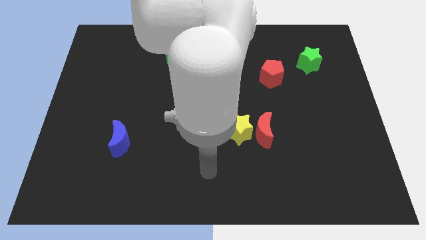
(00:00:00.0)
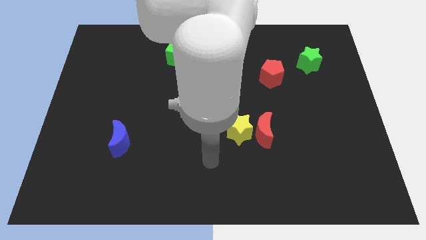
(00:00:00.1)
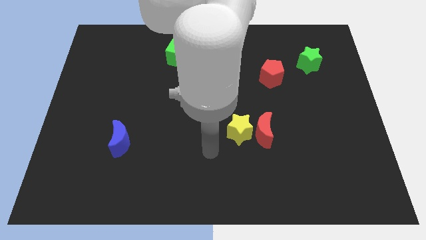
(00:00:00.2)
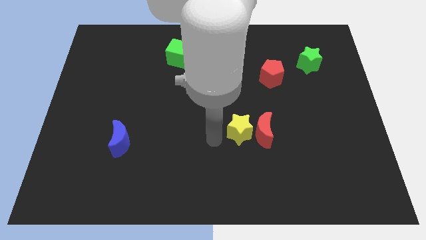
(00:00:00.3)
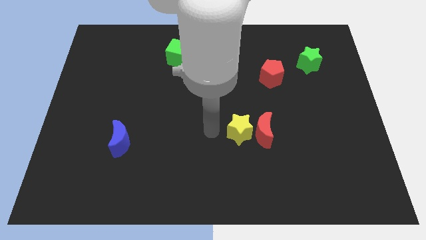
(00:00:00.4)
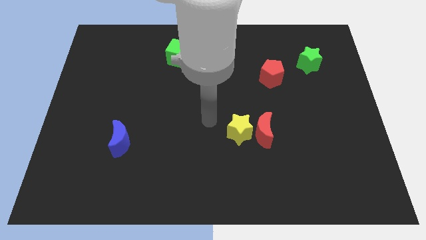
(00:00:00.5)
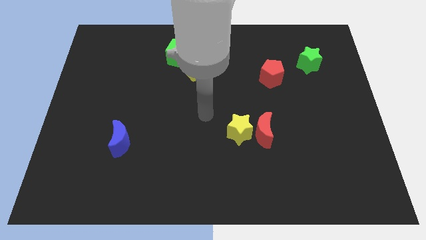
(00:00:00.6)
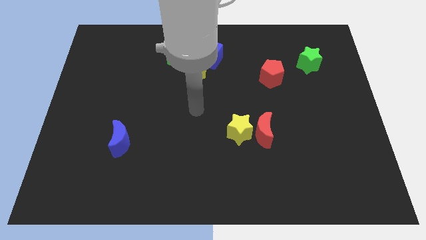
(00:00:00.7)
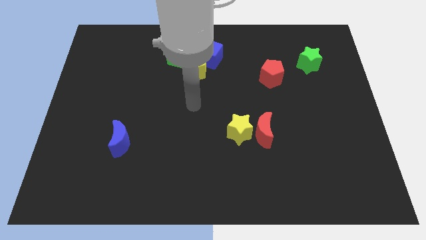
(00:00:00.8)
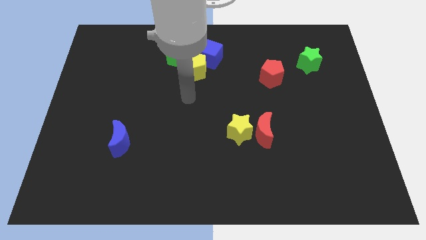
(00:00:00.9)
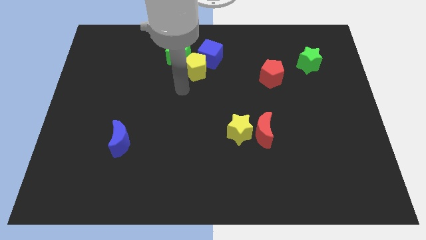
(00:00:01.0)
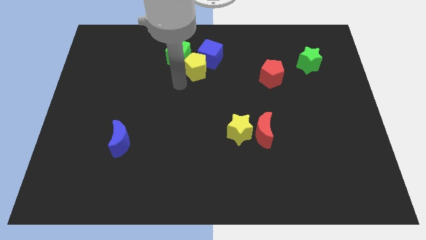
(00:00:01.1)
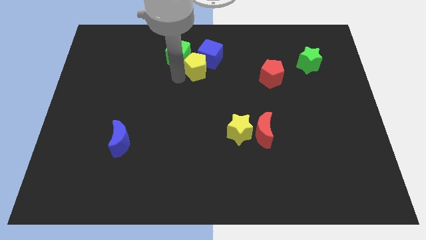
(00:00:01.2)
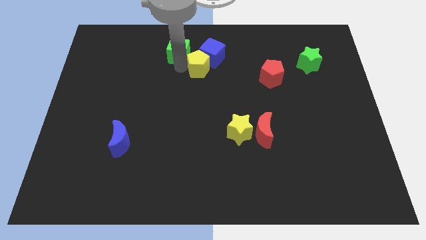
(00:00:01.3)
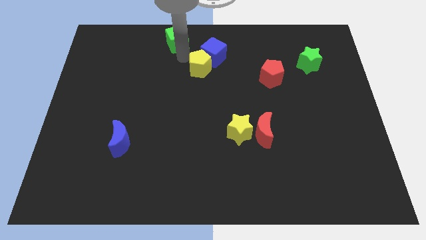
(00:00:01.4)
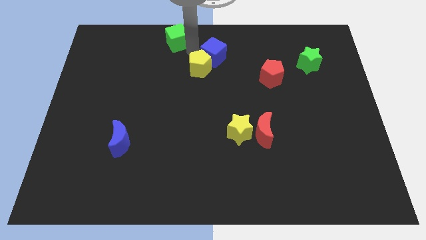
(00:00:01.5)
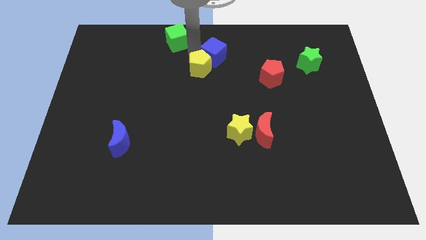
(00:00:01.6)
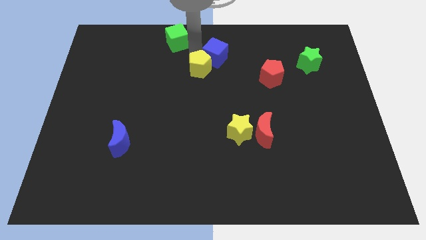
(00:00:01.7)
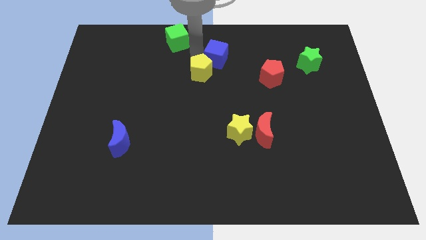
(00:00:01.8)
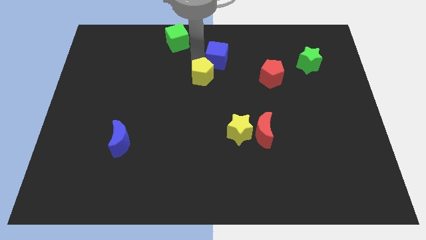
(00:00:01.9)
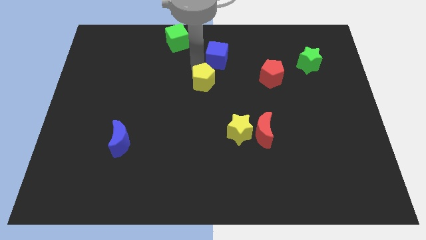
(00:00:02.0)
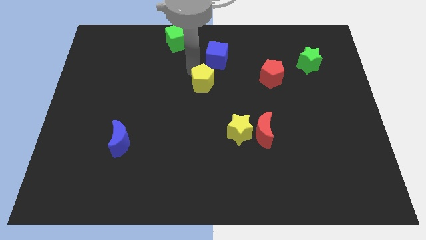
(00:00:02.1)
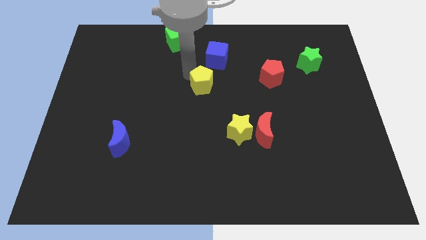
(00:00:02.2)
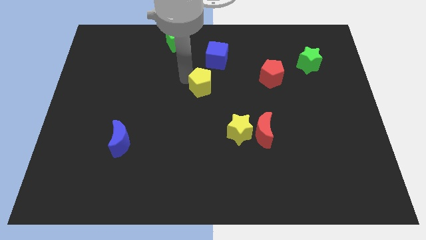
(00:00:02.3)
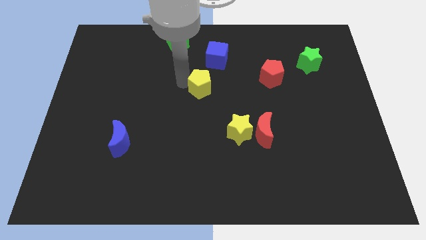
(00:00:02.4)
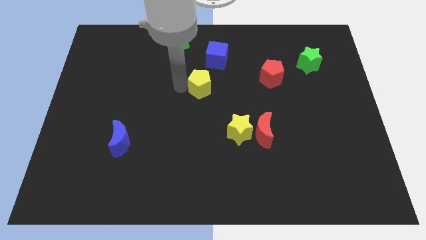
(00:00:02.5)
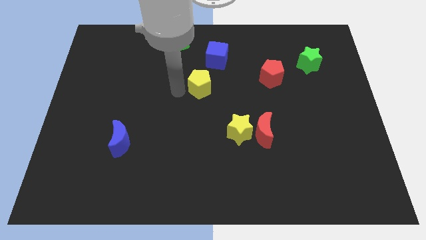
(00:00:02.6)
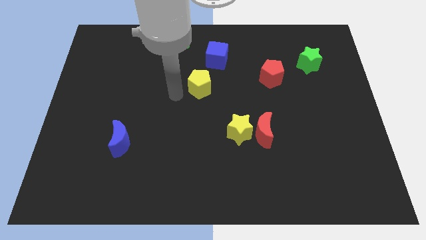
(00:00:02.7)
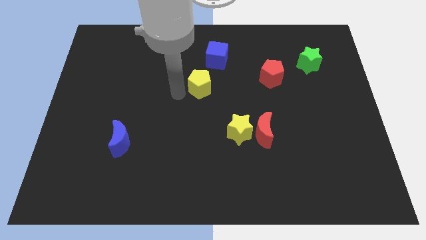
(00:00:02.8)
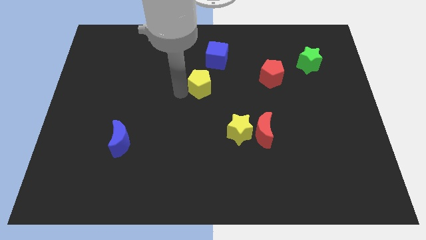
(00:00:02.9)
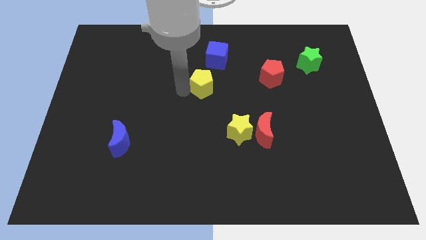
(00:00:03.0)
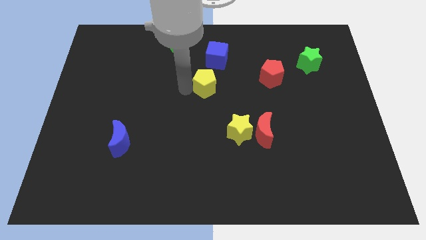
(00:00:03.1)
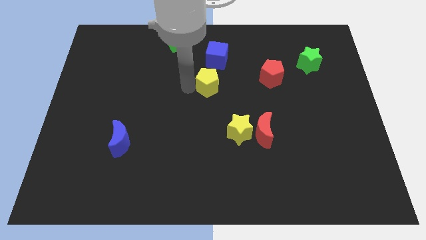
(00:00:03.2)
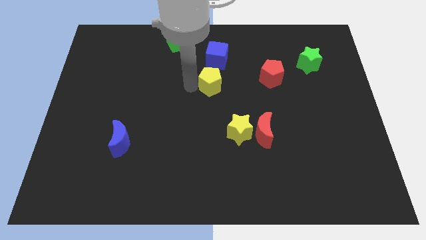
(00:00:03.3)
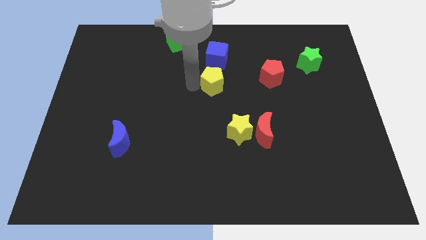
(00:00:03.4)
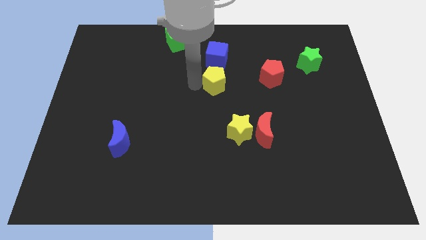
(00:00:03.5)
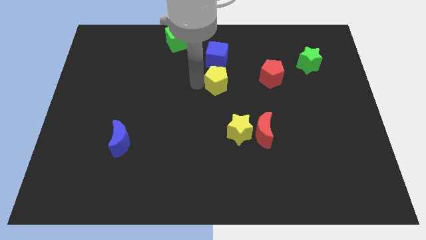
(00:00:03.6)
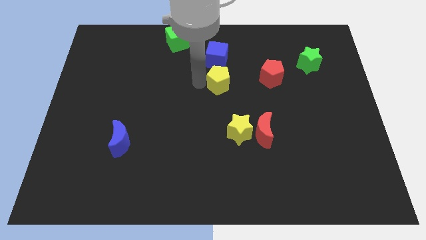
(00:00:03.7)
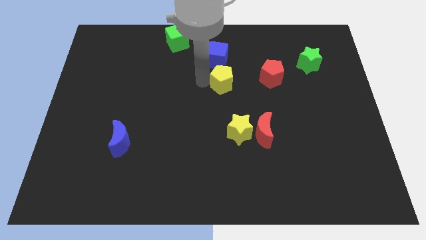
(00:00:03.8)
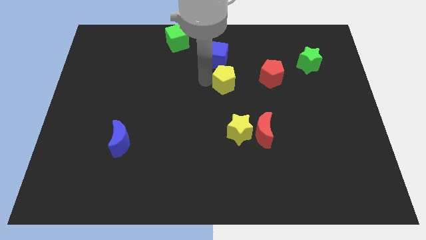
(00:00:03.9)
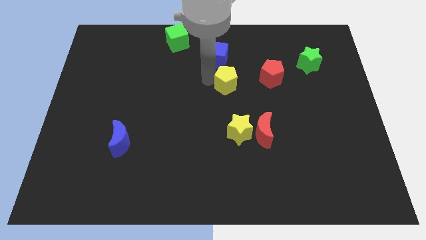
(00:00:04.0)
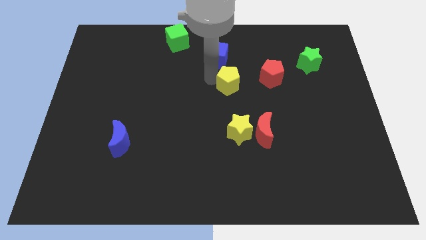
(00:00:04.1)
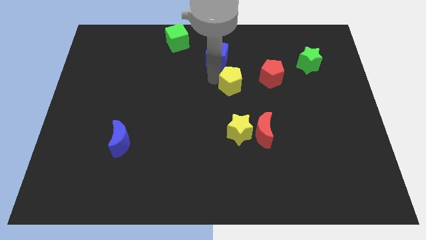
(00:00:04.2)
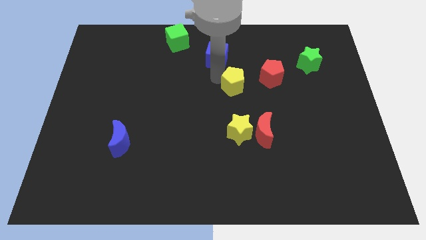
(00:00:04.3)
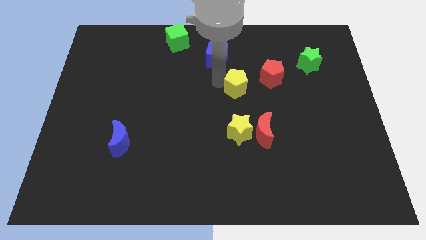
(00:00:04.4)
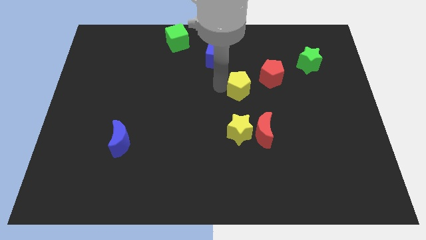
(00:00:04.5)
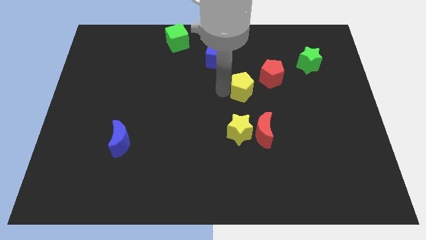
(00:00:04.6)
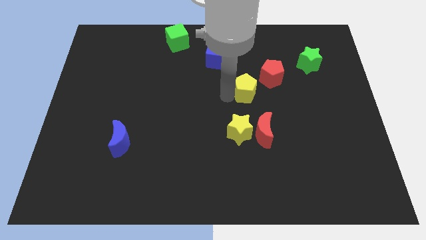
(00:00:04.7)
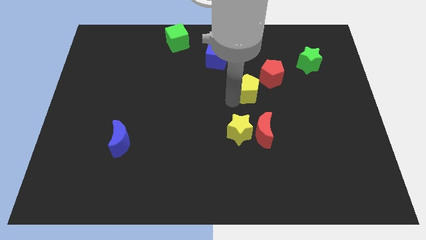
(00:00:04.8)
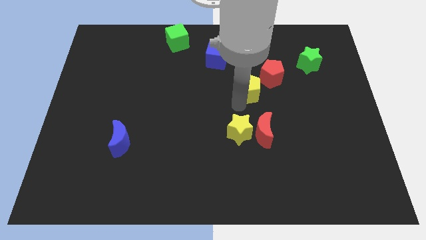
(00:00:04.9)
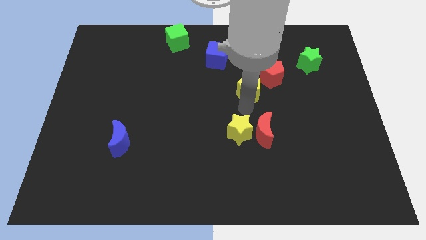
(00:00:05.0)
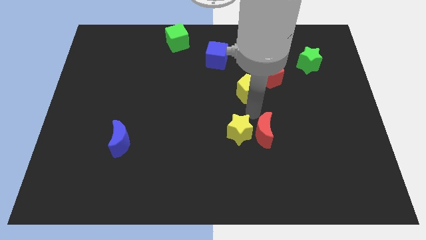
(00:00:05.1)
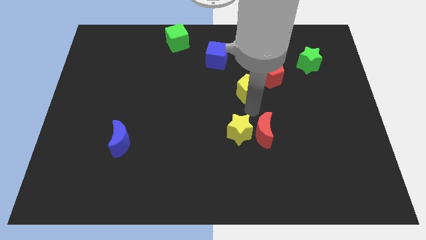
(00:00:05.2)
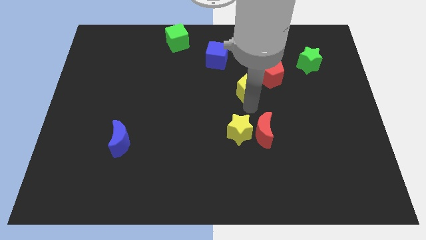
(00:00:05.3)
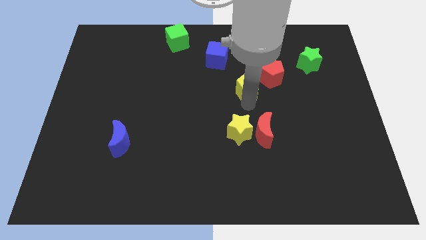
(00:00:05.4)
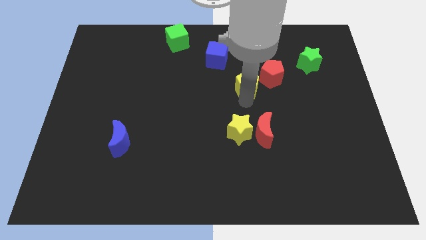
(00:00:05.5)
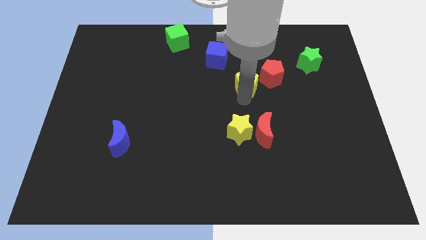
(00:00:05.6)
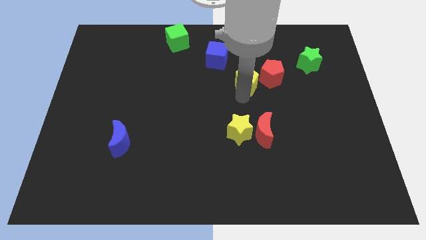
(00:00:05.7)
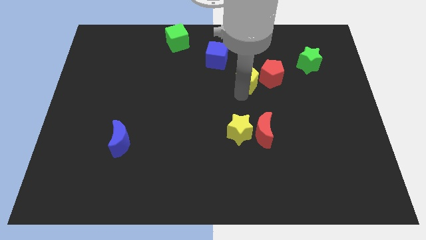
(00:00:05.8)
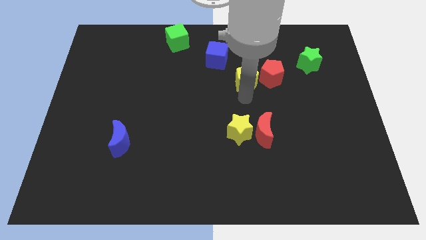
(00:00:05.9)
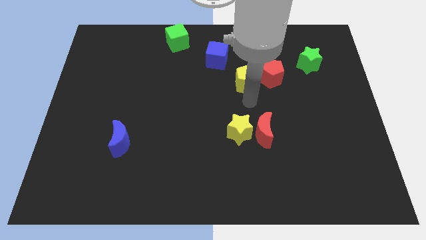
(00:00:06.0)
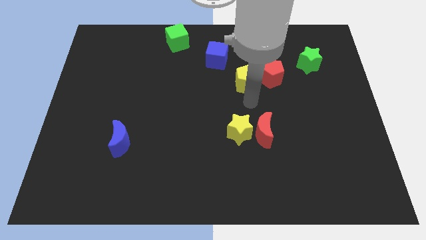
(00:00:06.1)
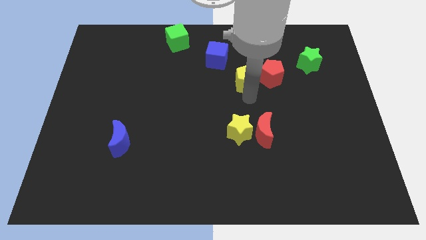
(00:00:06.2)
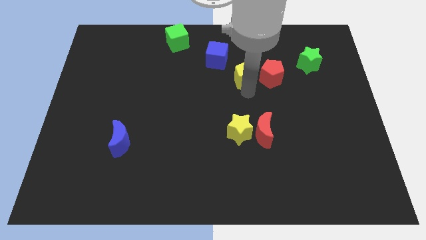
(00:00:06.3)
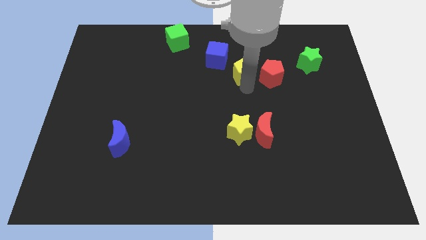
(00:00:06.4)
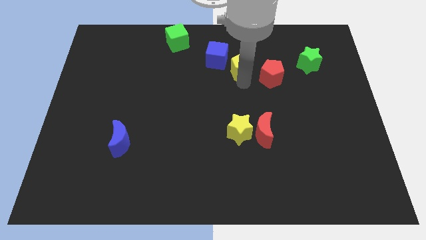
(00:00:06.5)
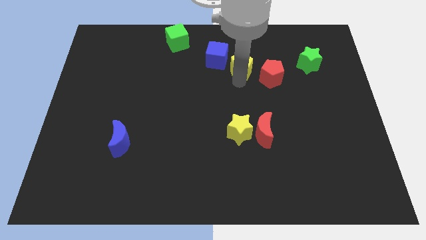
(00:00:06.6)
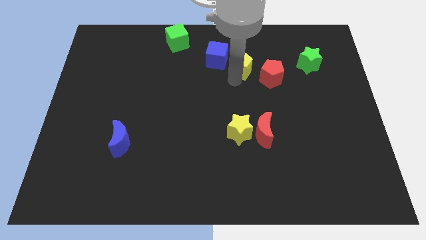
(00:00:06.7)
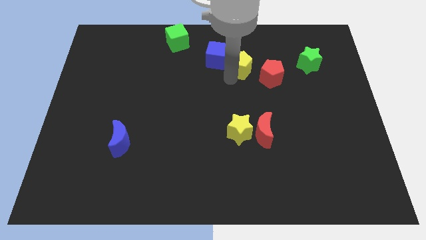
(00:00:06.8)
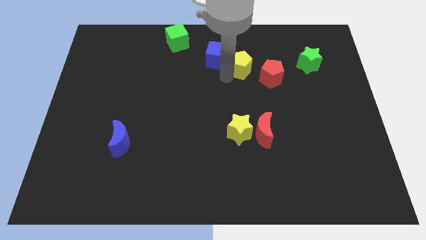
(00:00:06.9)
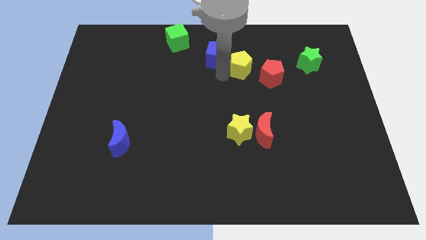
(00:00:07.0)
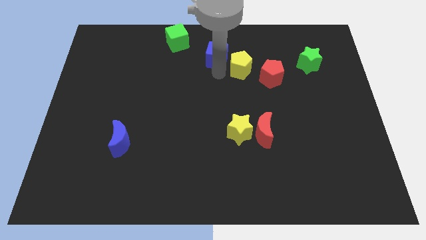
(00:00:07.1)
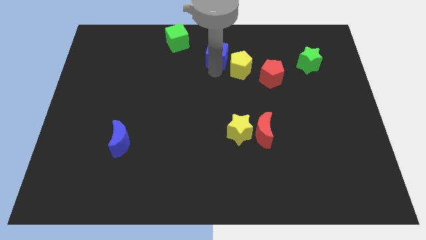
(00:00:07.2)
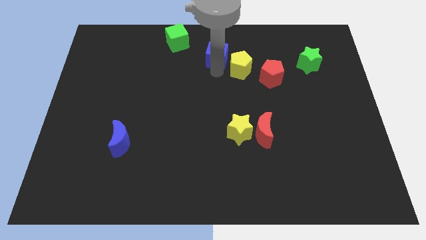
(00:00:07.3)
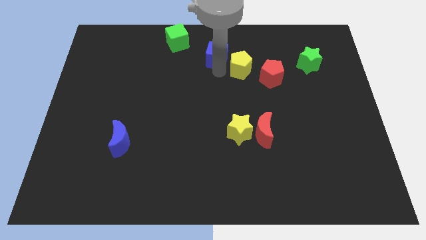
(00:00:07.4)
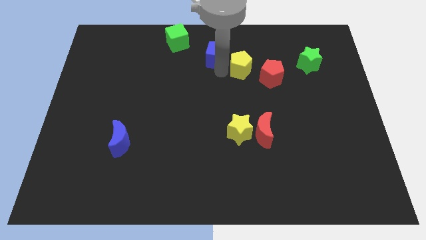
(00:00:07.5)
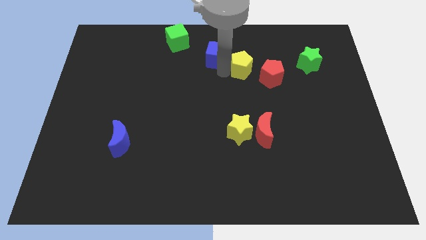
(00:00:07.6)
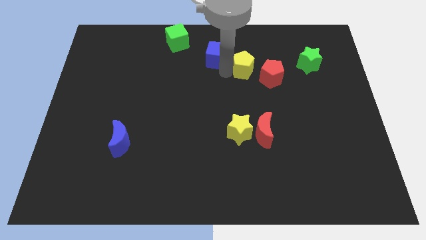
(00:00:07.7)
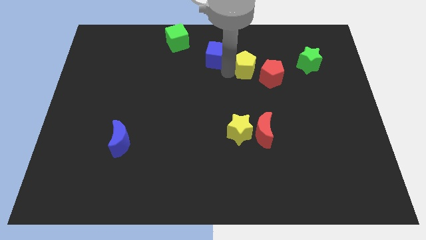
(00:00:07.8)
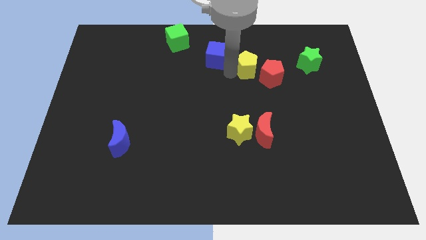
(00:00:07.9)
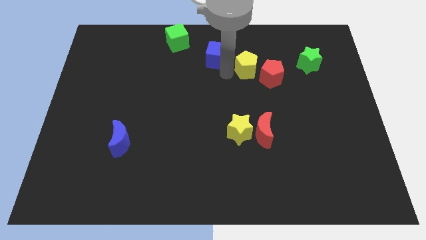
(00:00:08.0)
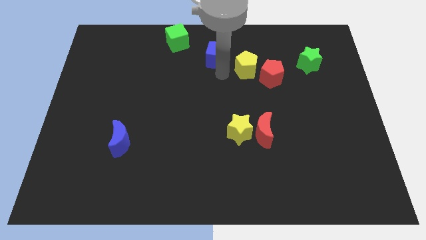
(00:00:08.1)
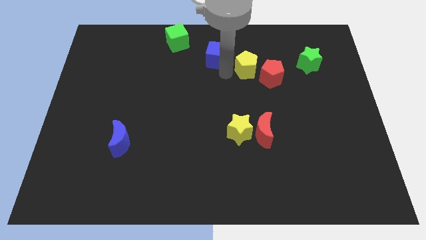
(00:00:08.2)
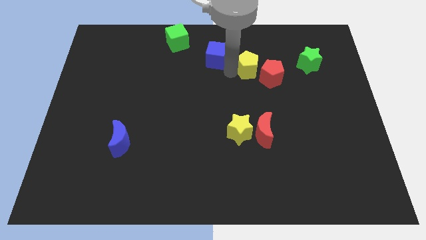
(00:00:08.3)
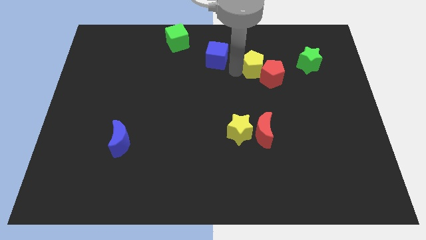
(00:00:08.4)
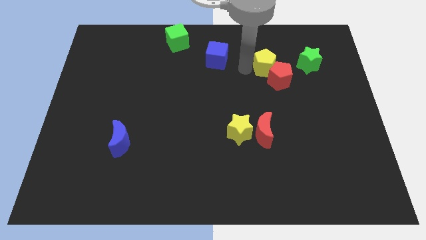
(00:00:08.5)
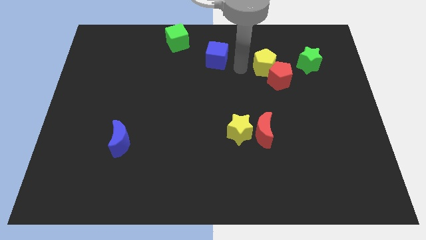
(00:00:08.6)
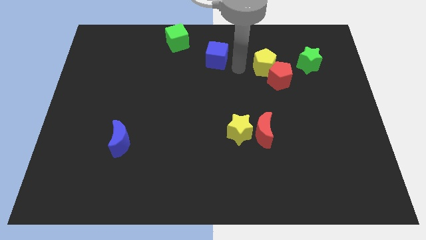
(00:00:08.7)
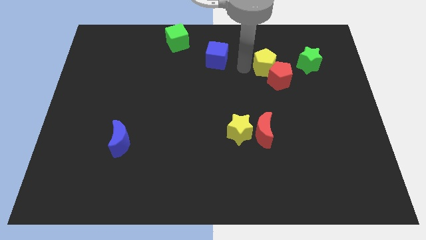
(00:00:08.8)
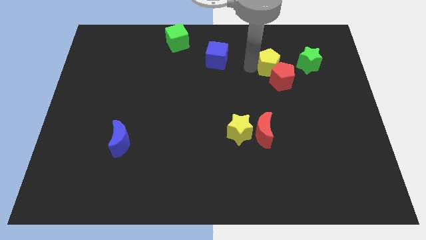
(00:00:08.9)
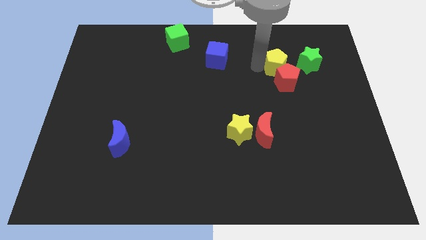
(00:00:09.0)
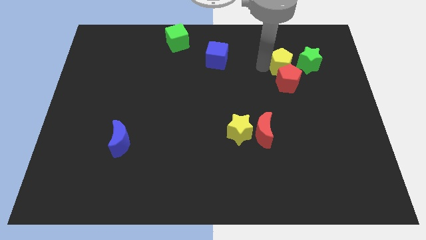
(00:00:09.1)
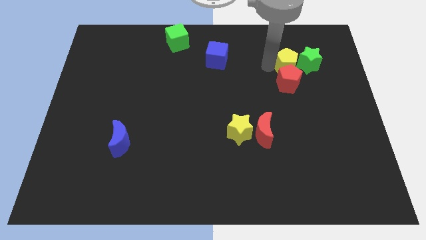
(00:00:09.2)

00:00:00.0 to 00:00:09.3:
put the yellow pentagon close to the green star
